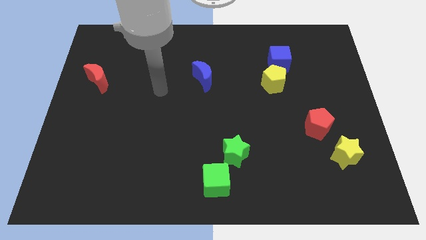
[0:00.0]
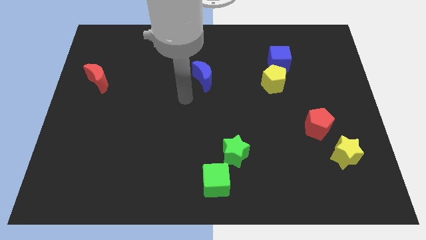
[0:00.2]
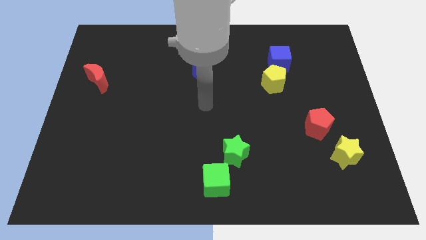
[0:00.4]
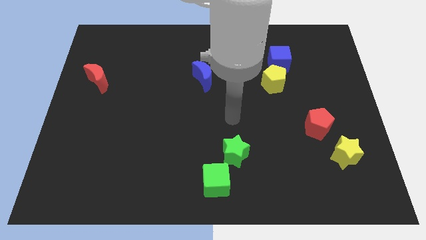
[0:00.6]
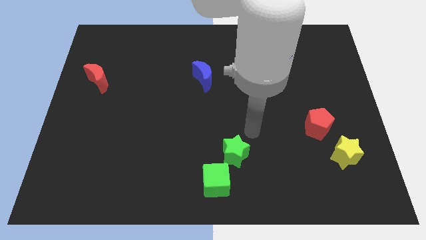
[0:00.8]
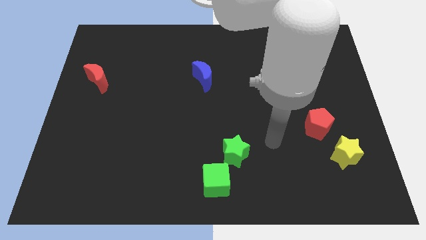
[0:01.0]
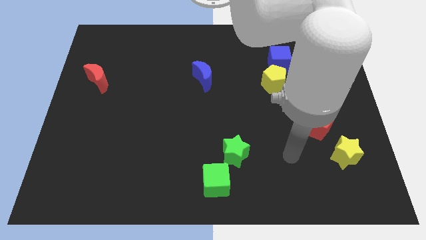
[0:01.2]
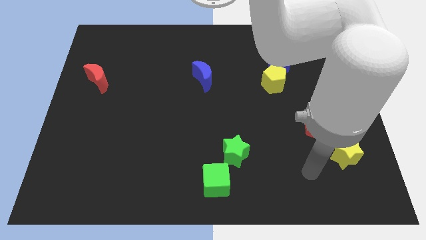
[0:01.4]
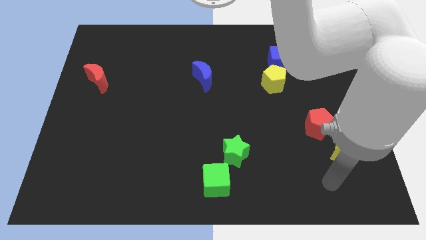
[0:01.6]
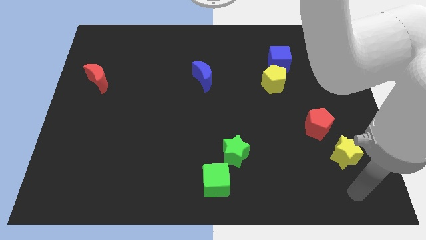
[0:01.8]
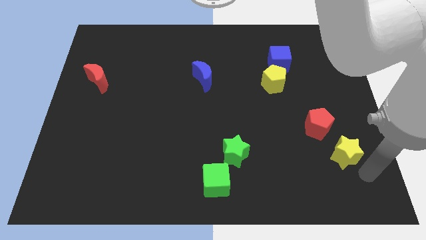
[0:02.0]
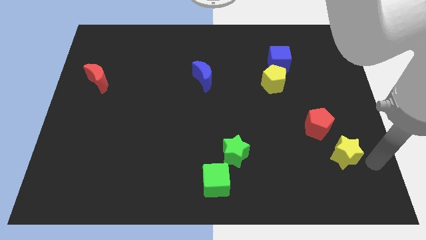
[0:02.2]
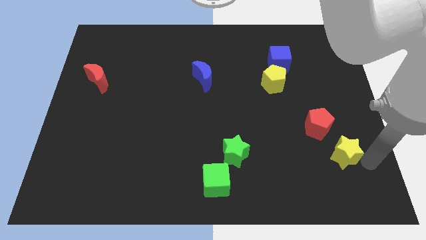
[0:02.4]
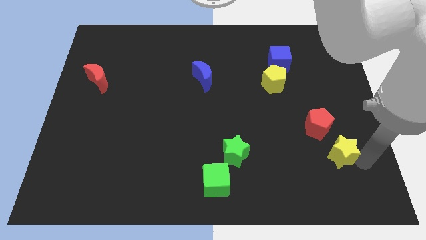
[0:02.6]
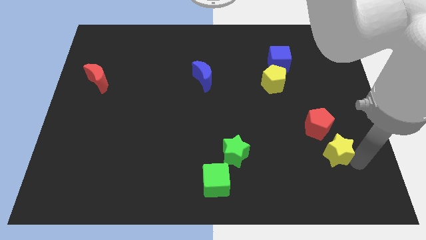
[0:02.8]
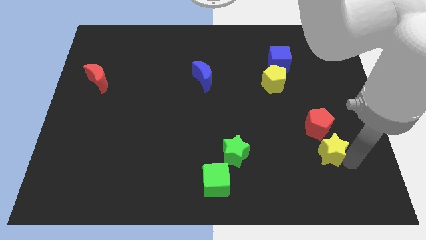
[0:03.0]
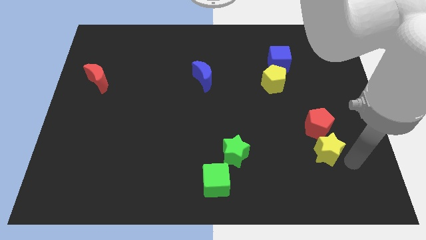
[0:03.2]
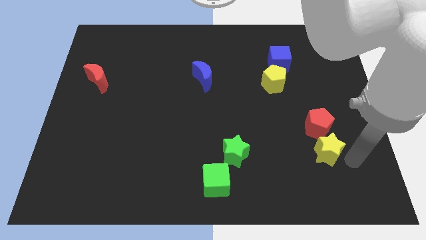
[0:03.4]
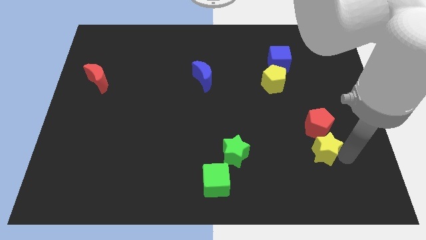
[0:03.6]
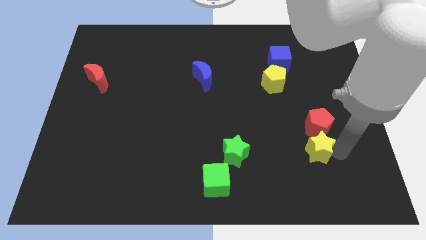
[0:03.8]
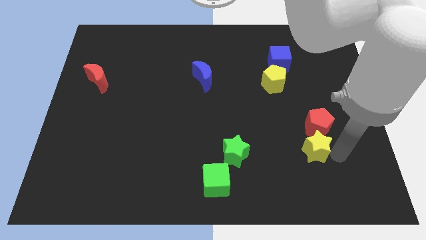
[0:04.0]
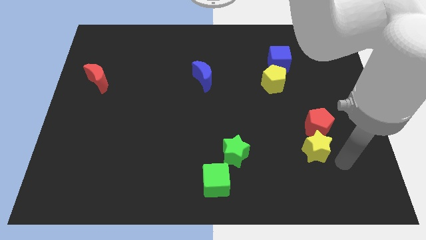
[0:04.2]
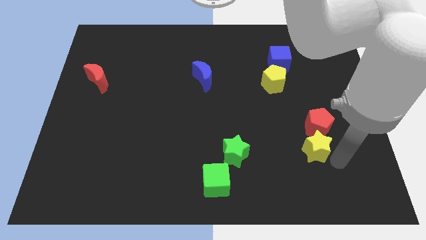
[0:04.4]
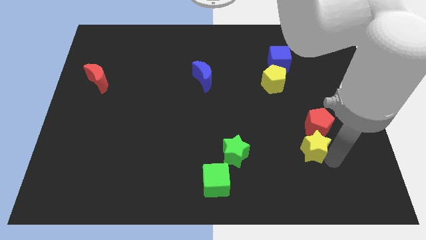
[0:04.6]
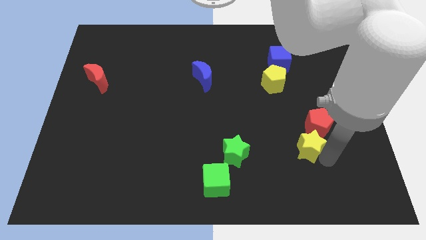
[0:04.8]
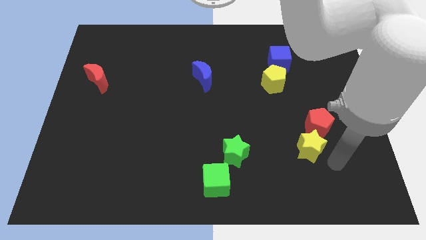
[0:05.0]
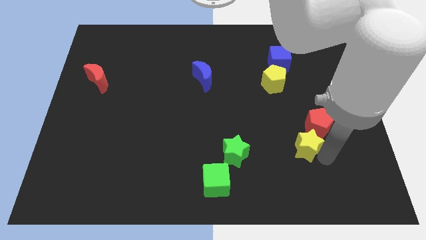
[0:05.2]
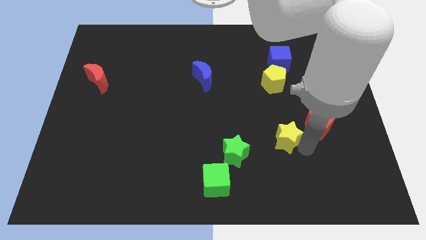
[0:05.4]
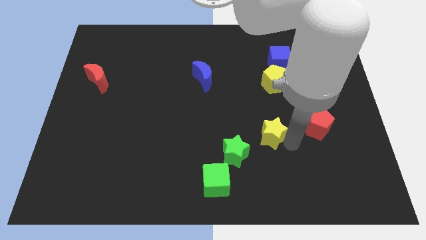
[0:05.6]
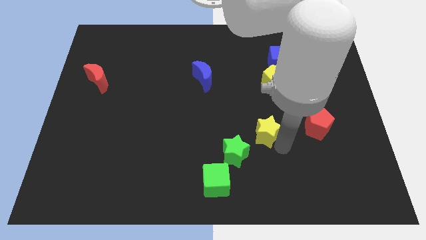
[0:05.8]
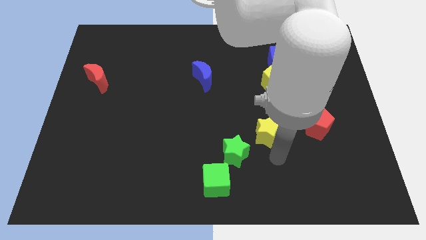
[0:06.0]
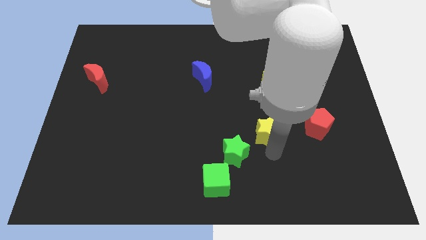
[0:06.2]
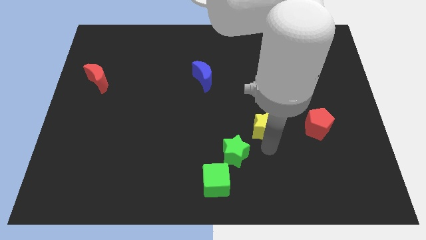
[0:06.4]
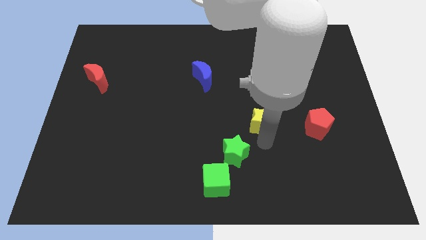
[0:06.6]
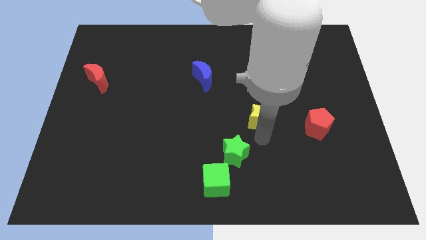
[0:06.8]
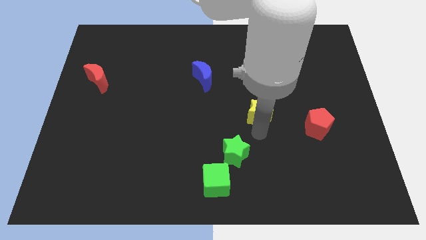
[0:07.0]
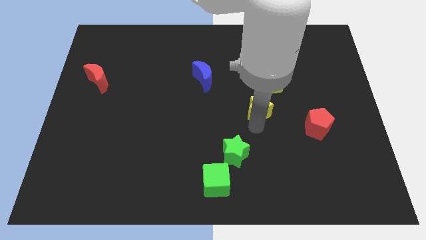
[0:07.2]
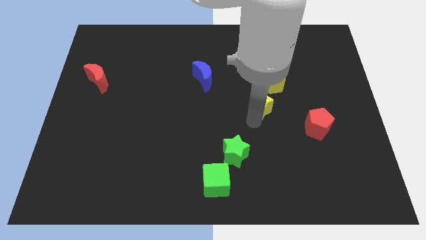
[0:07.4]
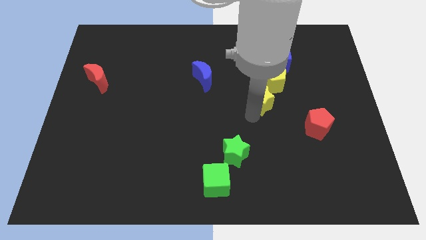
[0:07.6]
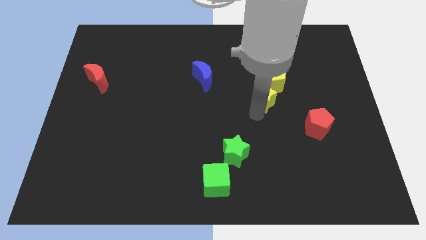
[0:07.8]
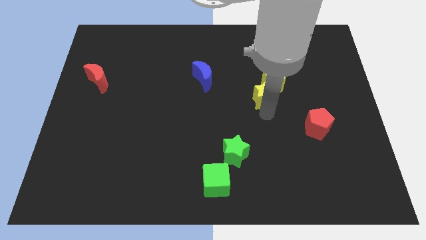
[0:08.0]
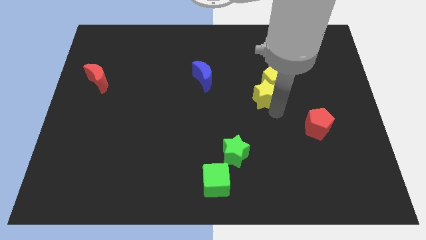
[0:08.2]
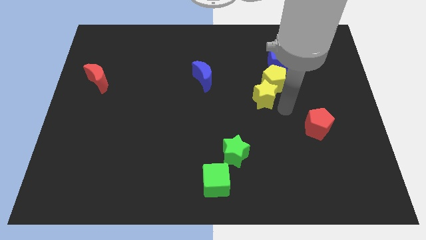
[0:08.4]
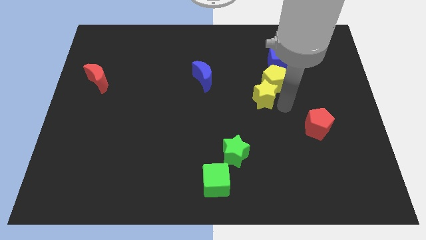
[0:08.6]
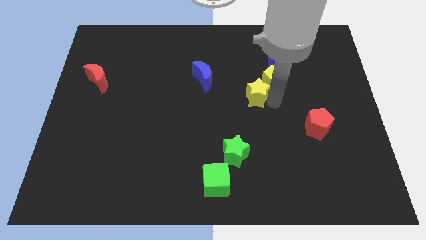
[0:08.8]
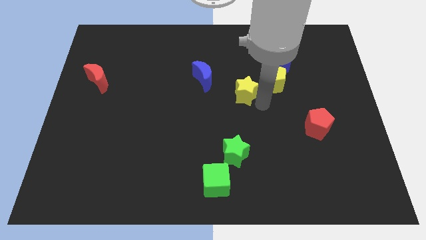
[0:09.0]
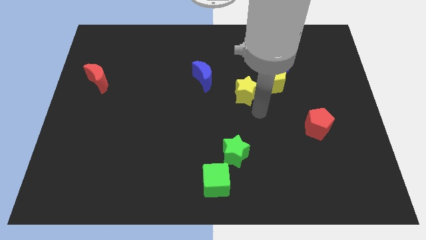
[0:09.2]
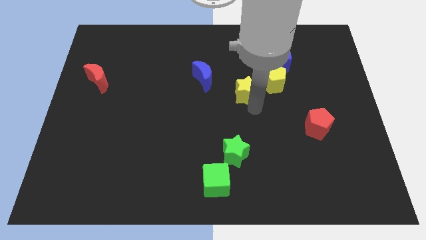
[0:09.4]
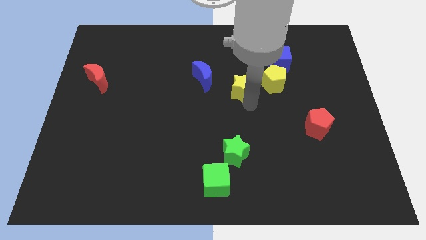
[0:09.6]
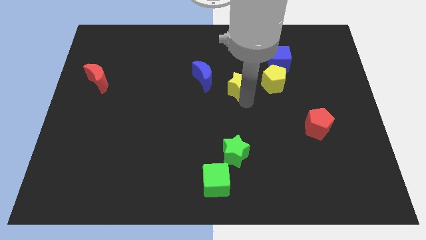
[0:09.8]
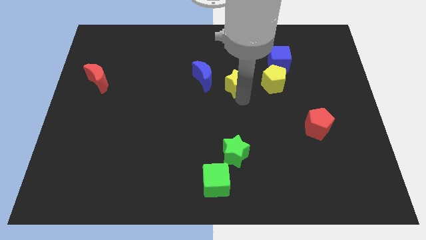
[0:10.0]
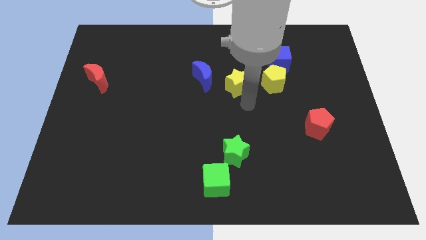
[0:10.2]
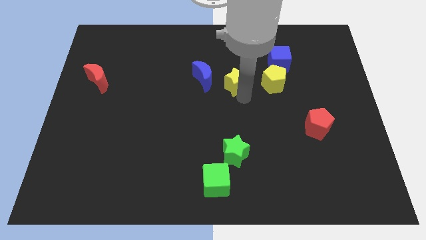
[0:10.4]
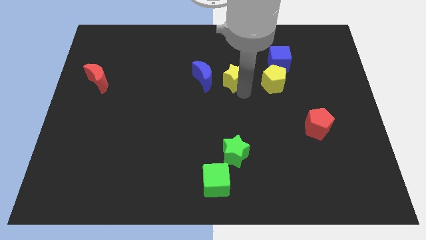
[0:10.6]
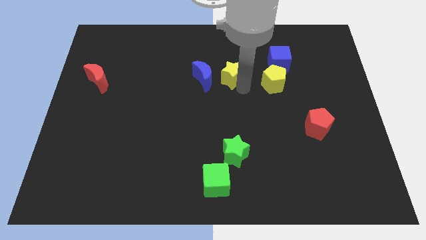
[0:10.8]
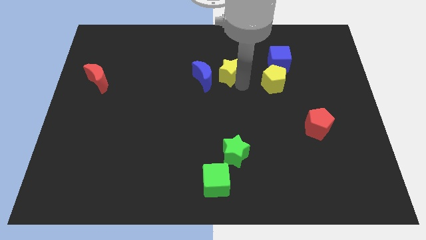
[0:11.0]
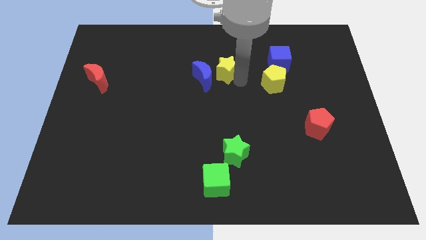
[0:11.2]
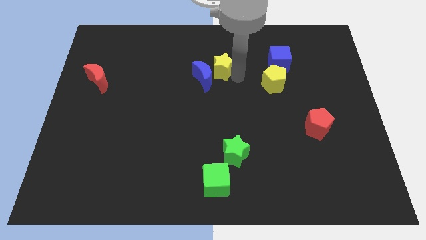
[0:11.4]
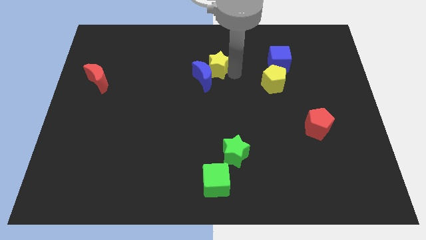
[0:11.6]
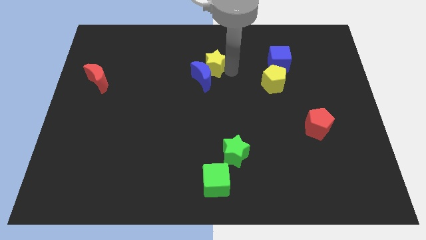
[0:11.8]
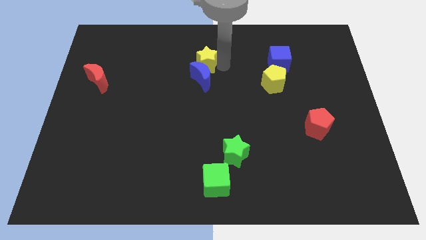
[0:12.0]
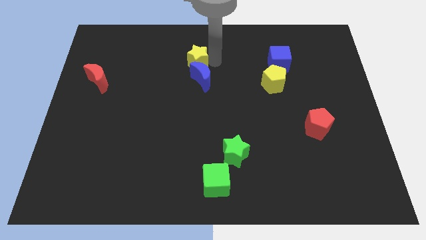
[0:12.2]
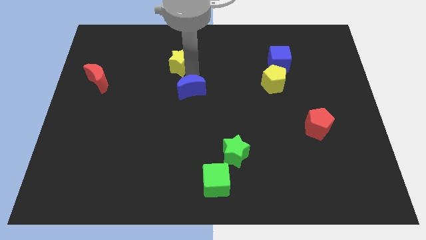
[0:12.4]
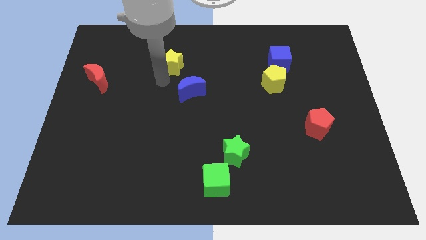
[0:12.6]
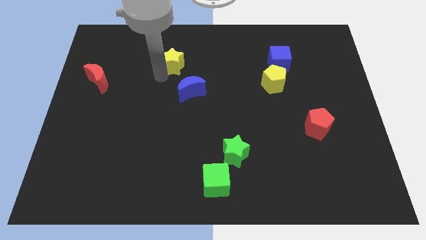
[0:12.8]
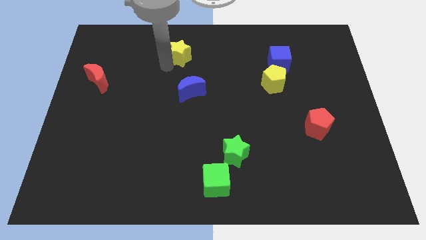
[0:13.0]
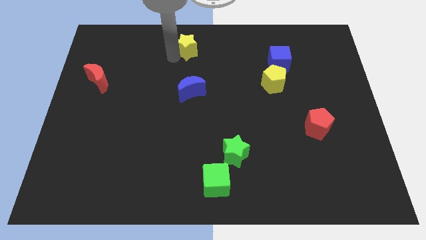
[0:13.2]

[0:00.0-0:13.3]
push the yellow star to the top
